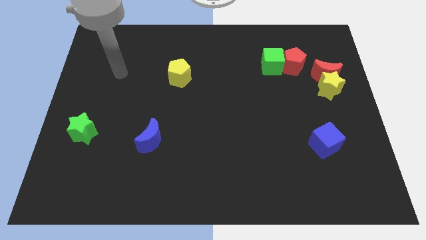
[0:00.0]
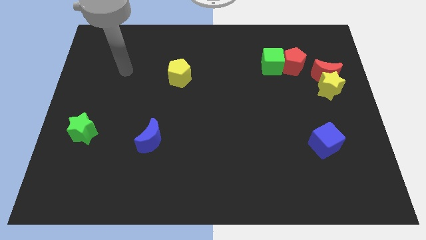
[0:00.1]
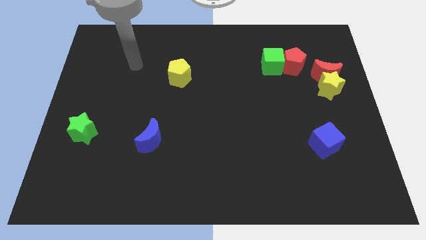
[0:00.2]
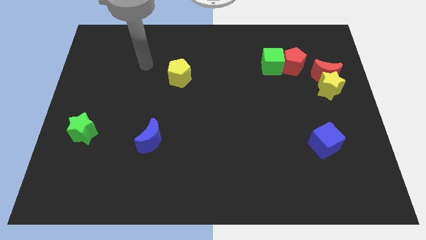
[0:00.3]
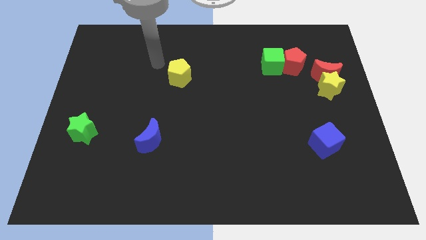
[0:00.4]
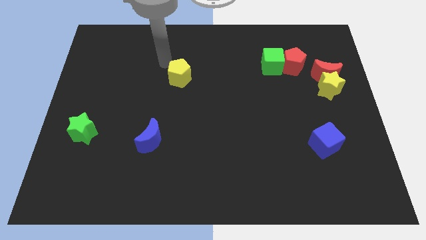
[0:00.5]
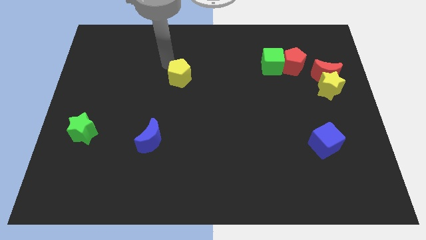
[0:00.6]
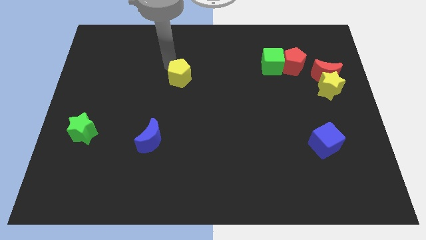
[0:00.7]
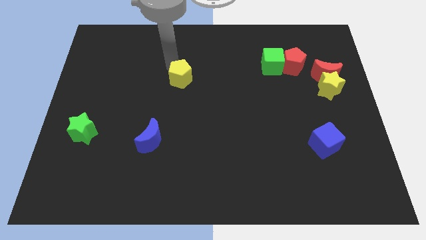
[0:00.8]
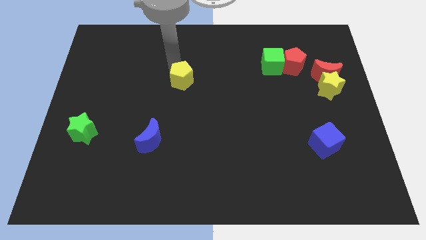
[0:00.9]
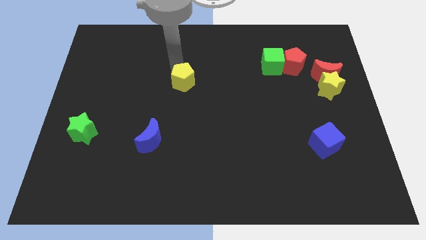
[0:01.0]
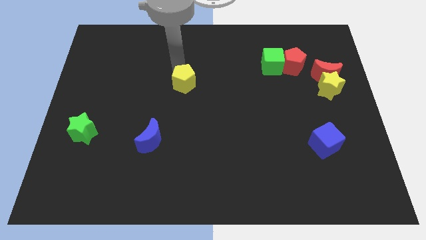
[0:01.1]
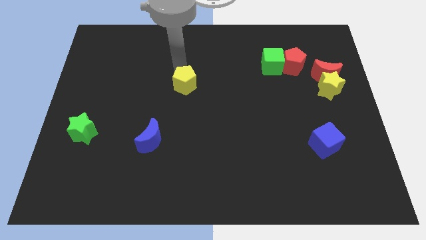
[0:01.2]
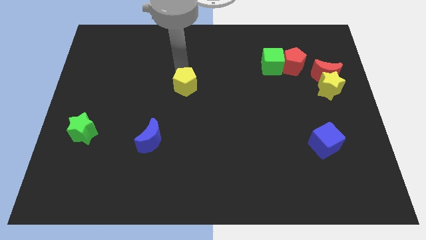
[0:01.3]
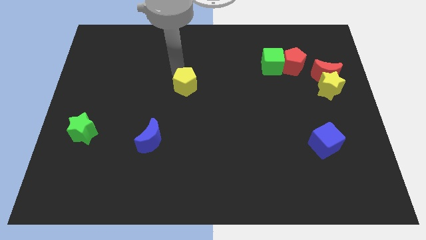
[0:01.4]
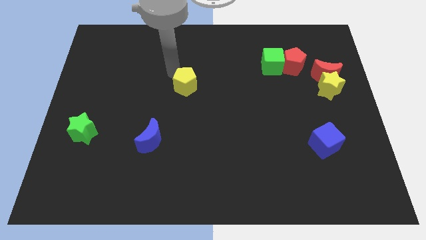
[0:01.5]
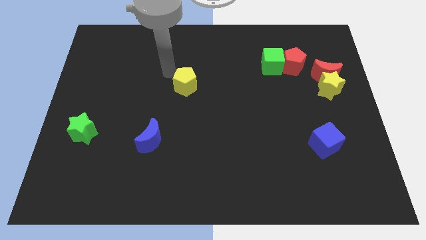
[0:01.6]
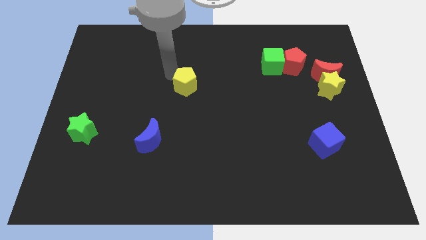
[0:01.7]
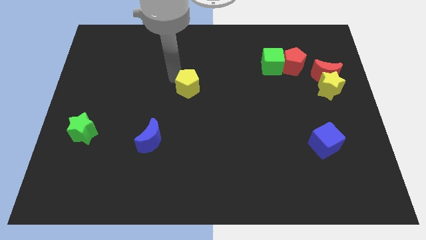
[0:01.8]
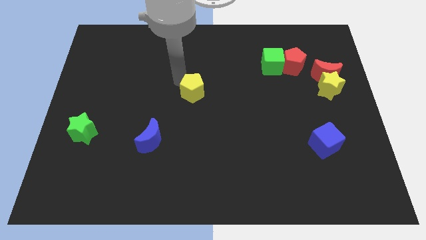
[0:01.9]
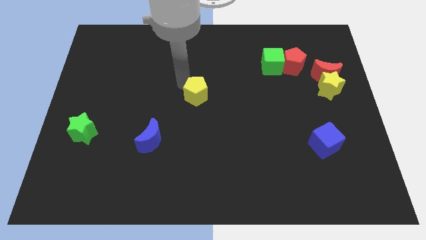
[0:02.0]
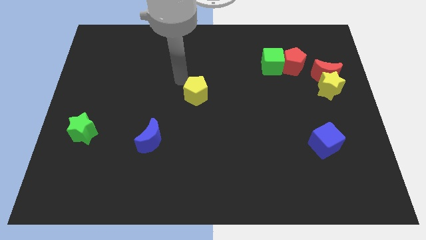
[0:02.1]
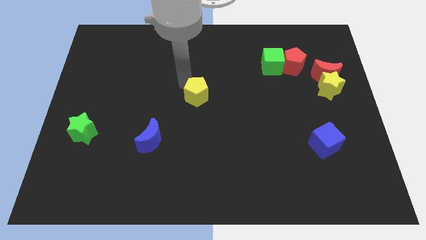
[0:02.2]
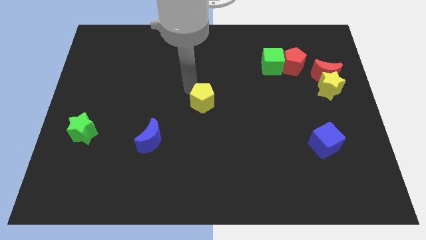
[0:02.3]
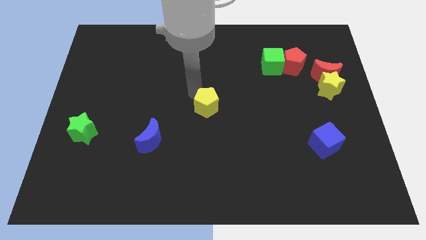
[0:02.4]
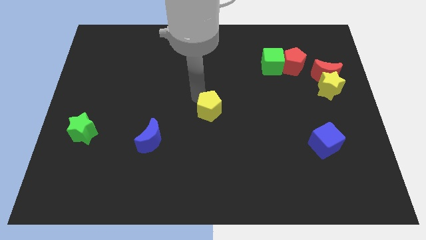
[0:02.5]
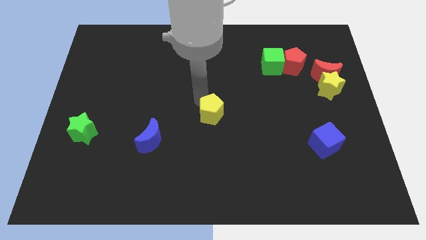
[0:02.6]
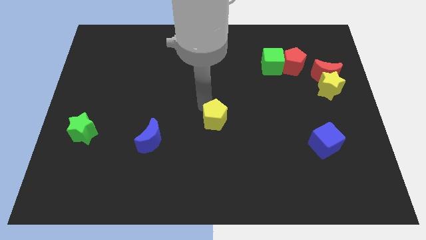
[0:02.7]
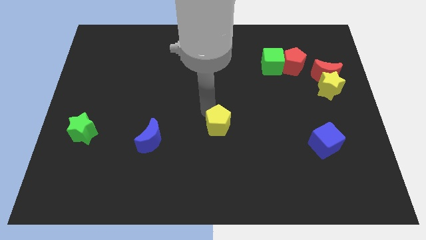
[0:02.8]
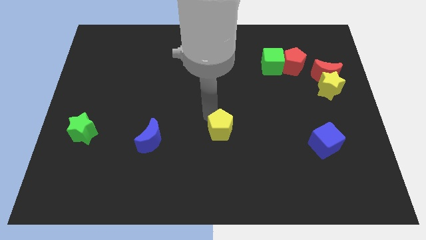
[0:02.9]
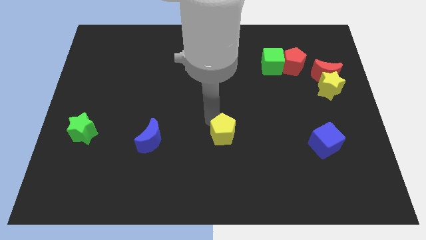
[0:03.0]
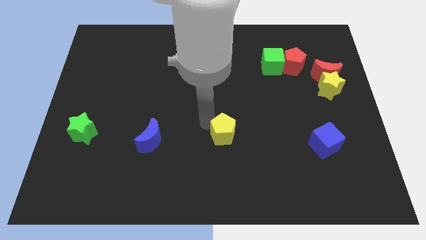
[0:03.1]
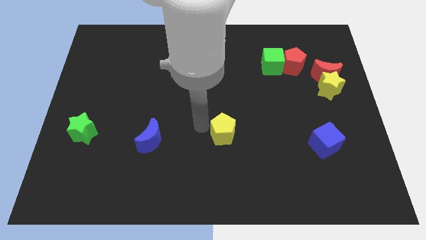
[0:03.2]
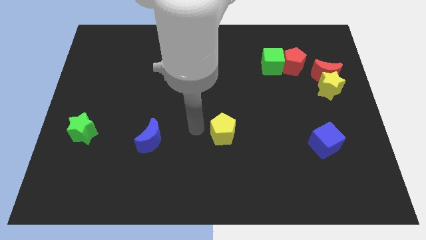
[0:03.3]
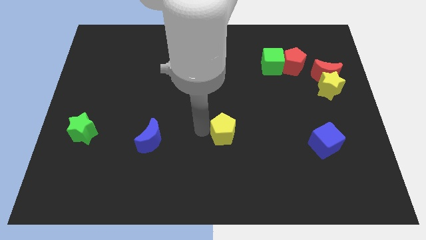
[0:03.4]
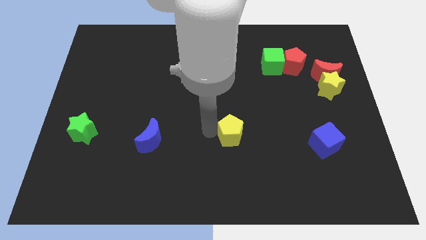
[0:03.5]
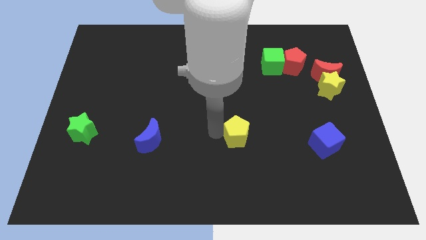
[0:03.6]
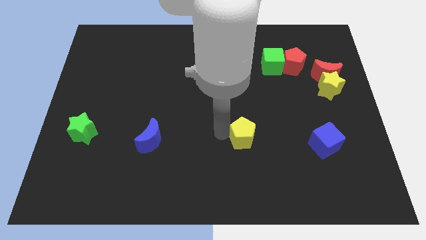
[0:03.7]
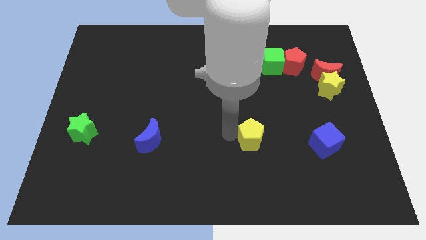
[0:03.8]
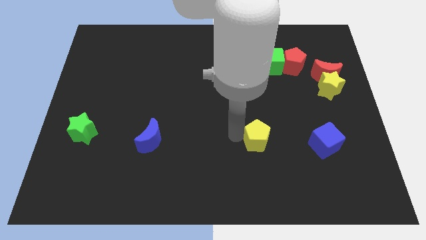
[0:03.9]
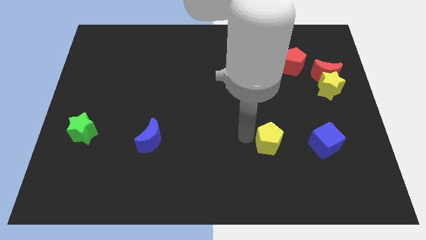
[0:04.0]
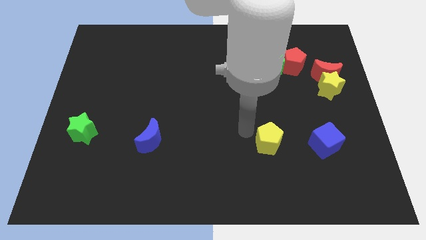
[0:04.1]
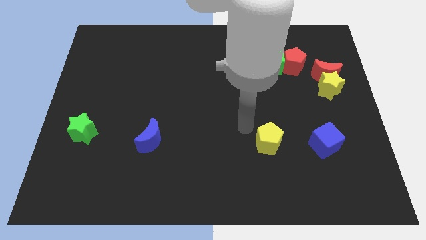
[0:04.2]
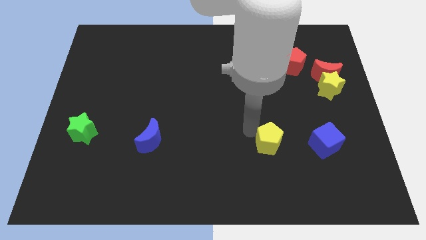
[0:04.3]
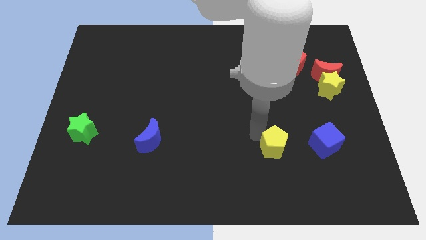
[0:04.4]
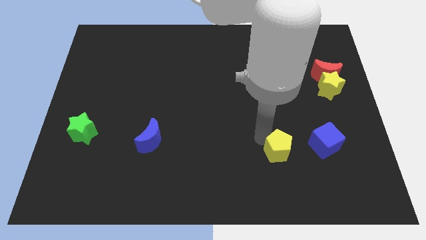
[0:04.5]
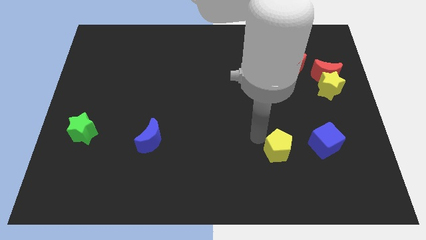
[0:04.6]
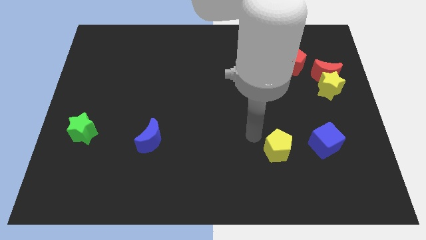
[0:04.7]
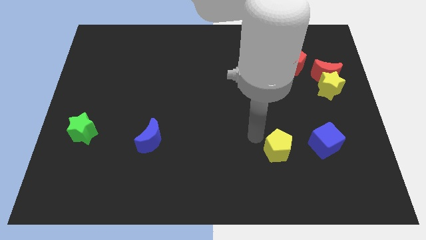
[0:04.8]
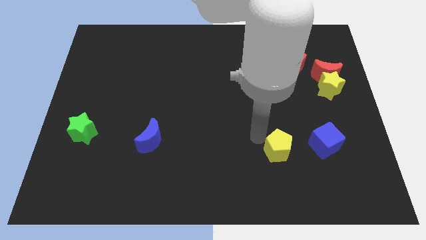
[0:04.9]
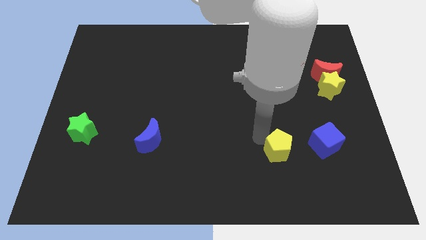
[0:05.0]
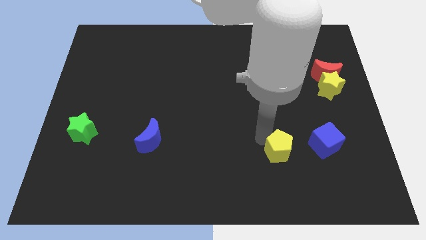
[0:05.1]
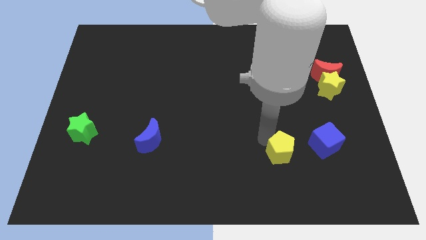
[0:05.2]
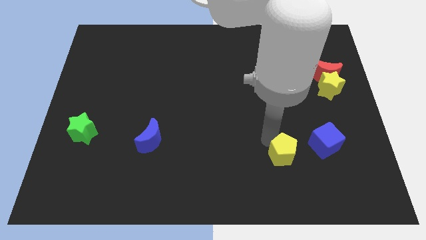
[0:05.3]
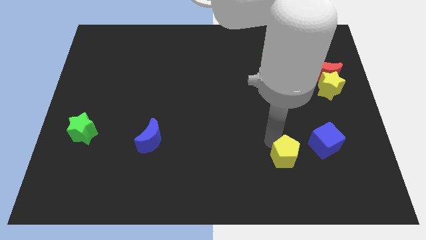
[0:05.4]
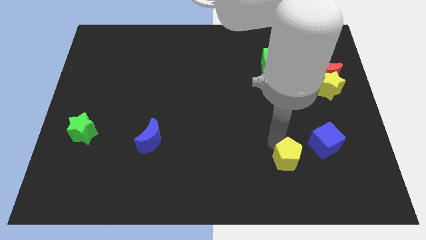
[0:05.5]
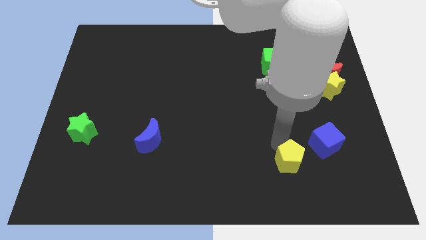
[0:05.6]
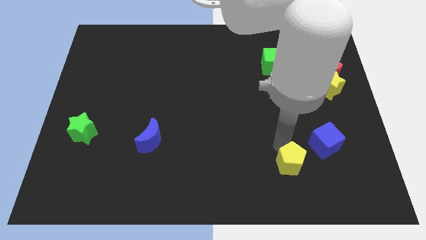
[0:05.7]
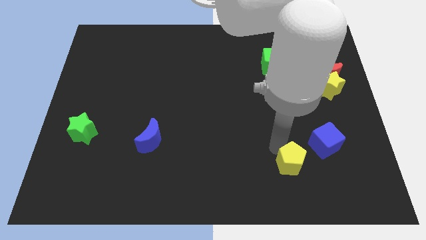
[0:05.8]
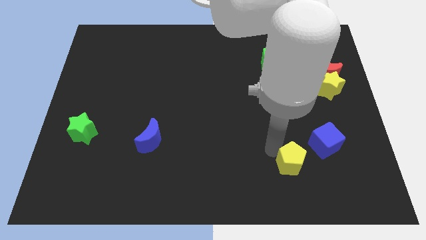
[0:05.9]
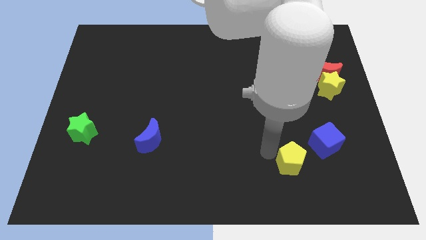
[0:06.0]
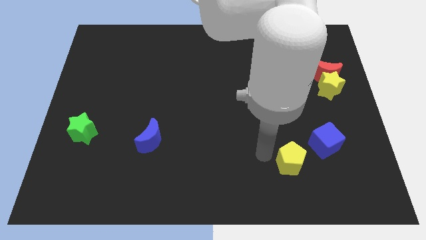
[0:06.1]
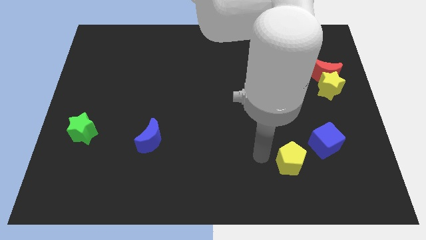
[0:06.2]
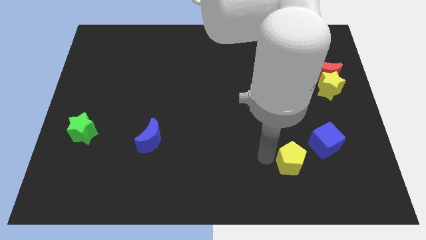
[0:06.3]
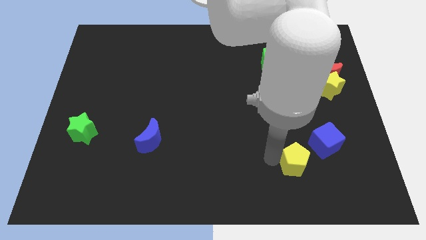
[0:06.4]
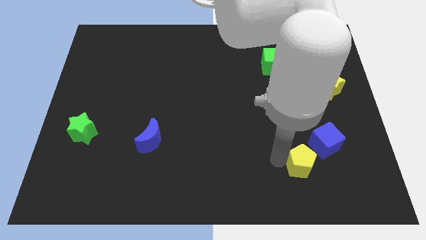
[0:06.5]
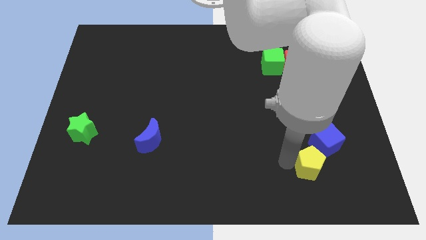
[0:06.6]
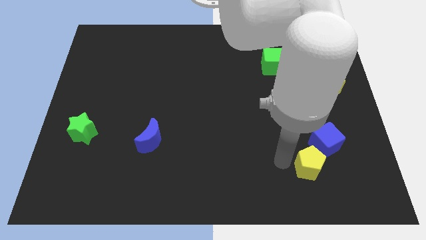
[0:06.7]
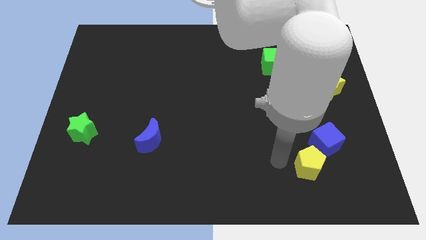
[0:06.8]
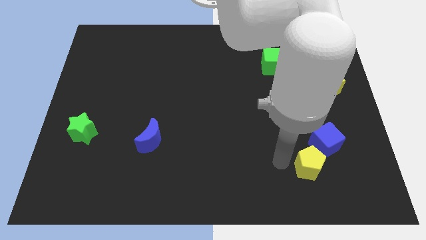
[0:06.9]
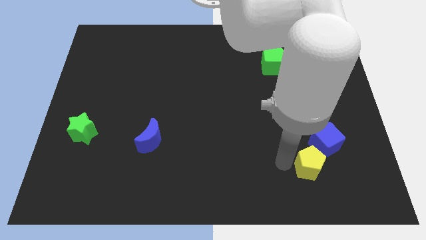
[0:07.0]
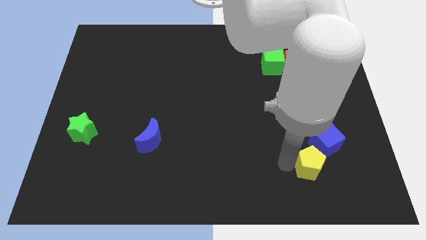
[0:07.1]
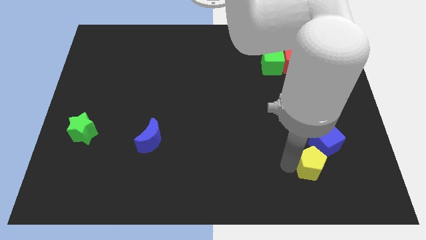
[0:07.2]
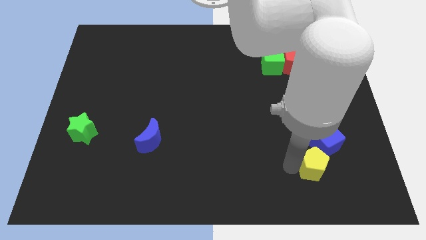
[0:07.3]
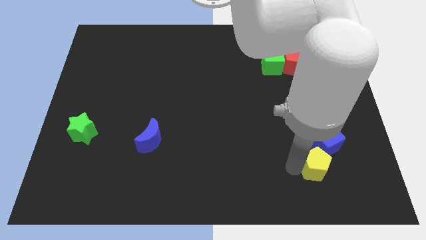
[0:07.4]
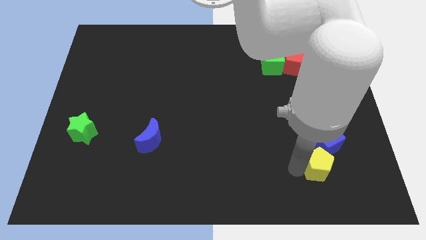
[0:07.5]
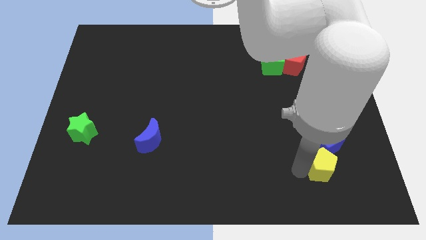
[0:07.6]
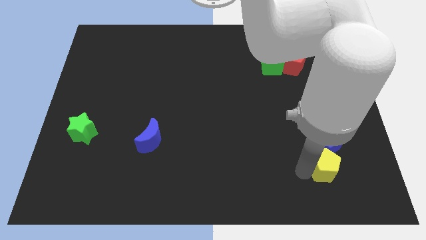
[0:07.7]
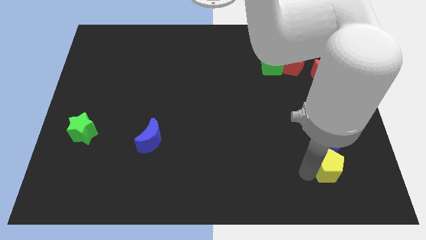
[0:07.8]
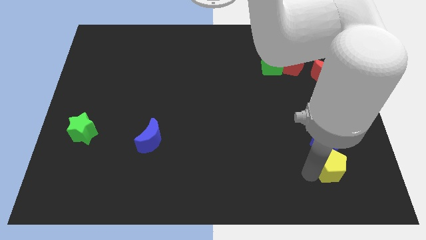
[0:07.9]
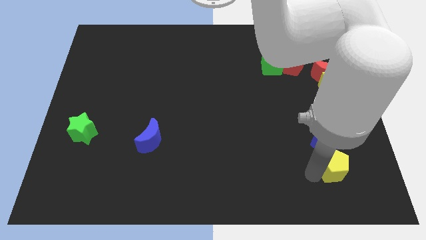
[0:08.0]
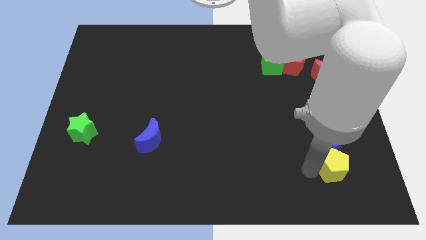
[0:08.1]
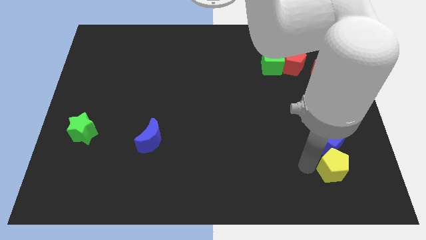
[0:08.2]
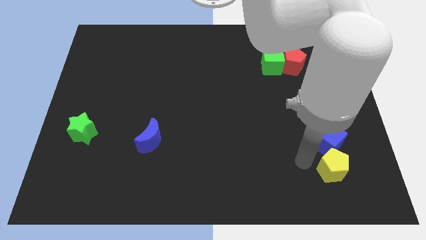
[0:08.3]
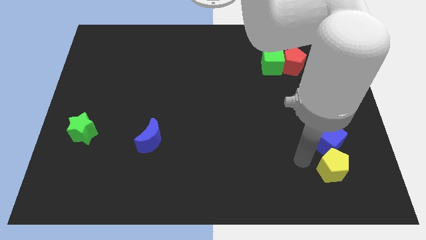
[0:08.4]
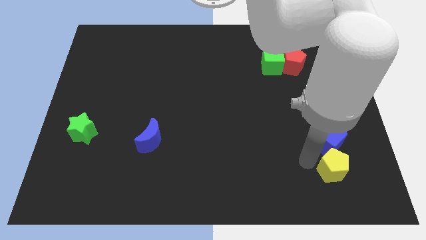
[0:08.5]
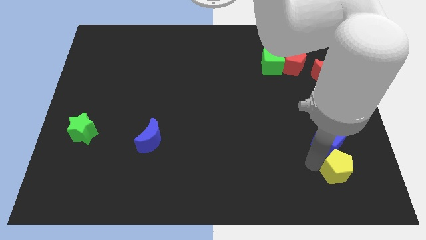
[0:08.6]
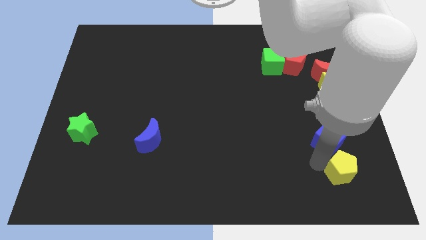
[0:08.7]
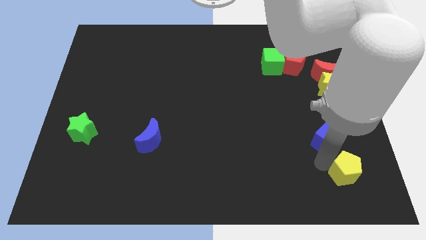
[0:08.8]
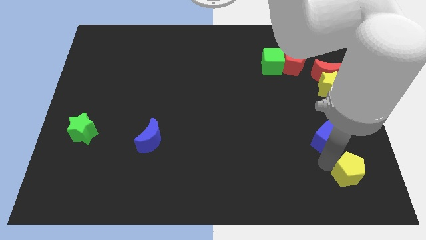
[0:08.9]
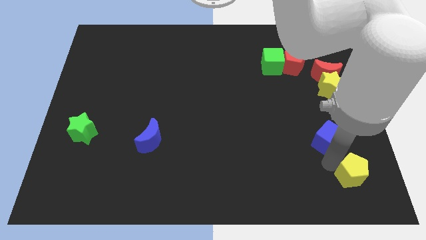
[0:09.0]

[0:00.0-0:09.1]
put the yellow pentagon to the bottom right of the board
